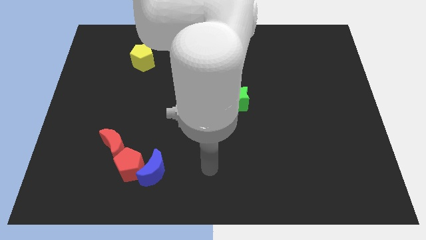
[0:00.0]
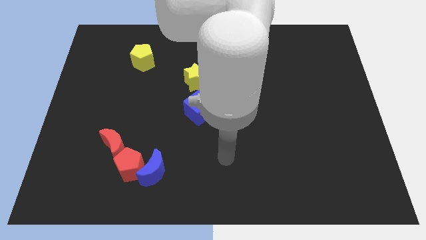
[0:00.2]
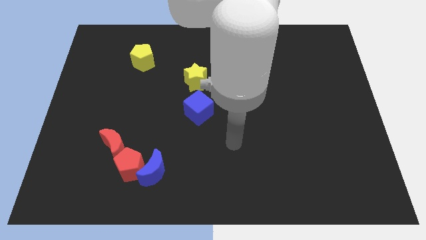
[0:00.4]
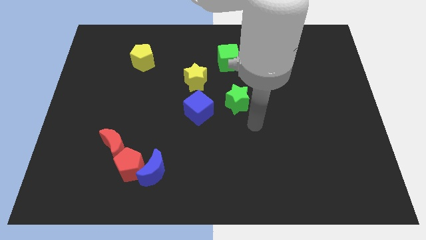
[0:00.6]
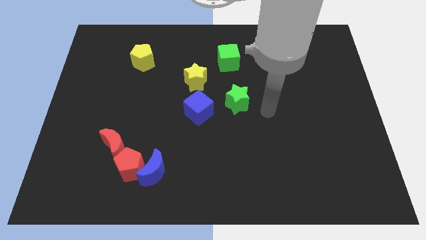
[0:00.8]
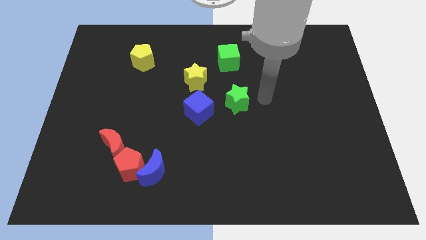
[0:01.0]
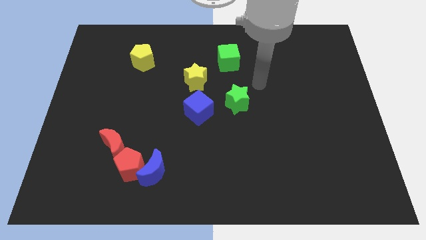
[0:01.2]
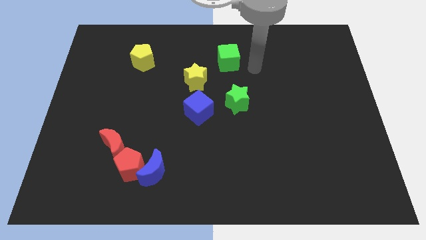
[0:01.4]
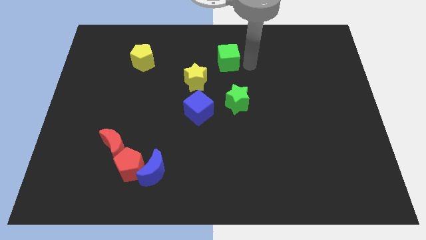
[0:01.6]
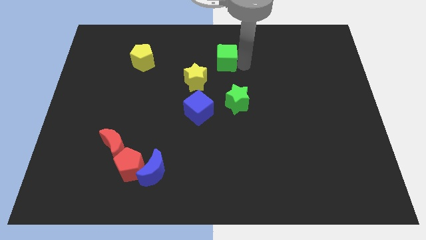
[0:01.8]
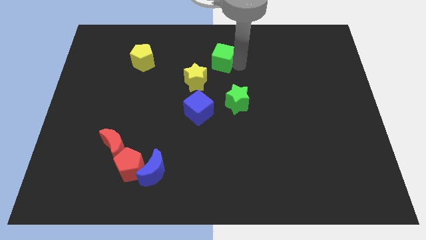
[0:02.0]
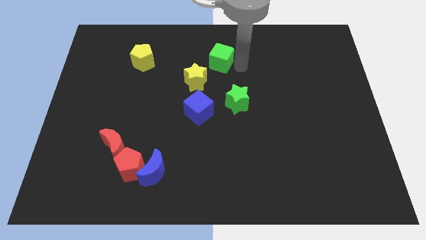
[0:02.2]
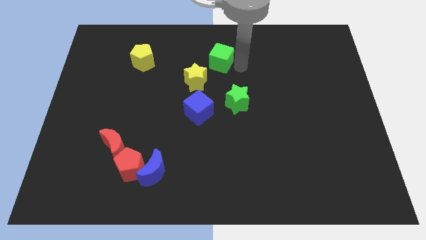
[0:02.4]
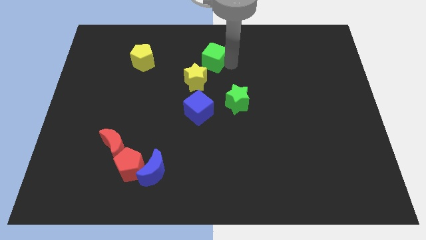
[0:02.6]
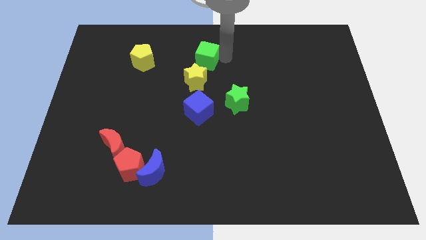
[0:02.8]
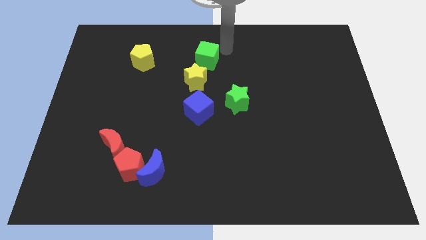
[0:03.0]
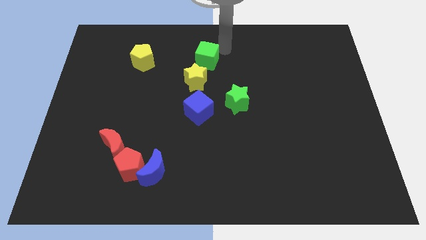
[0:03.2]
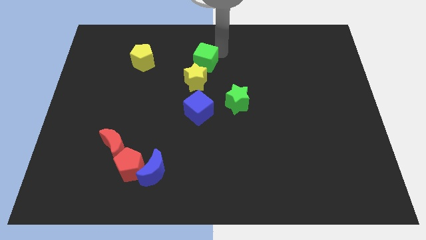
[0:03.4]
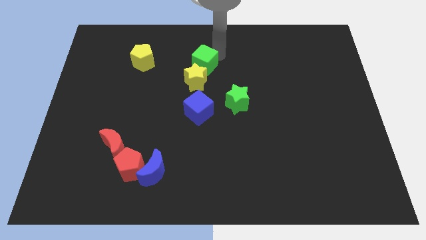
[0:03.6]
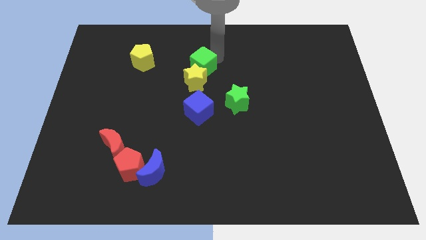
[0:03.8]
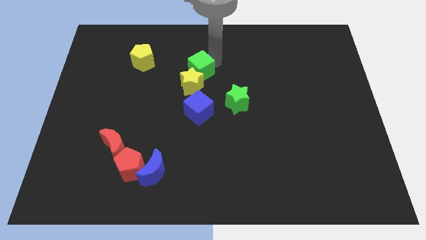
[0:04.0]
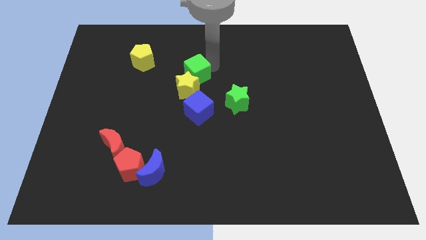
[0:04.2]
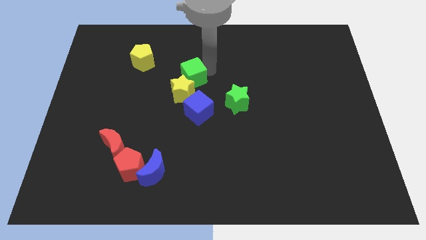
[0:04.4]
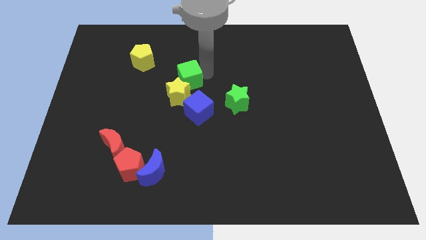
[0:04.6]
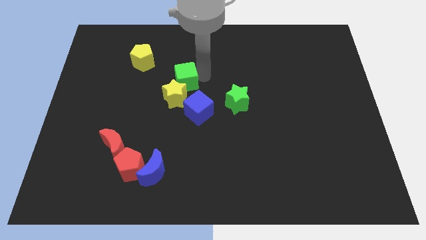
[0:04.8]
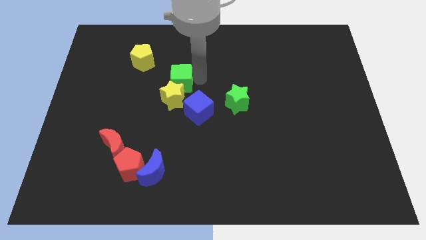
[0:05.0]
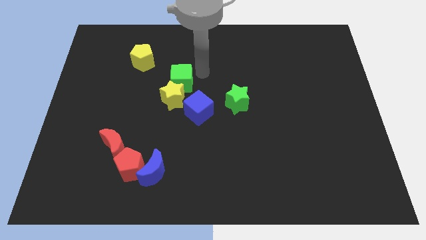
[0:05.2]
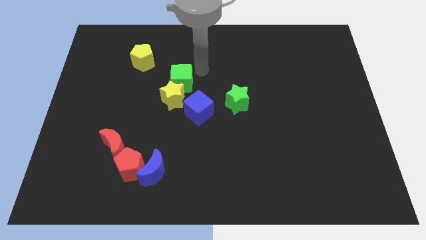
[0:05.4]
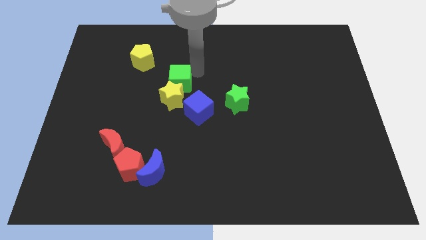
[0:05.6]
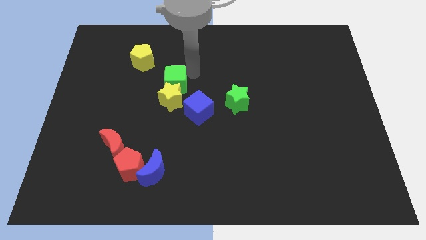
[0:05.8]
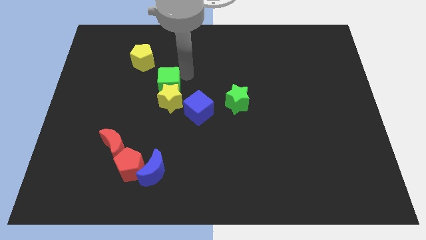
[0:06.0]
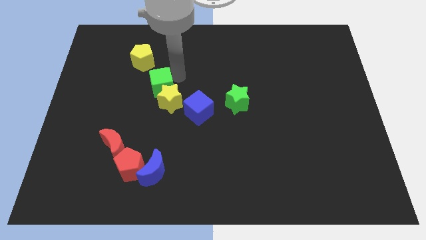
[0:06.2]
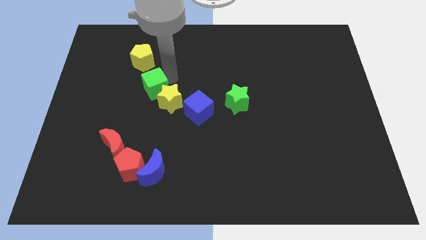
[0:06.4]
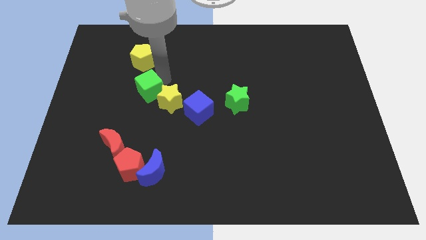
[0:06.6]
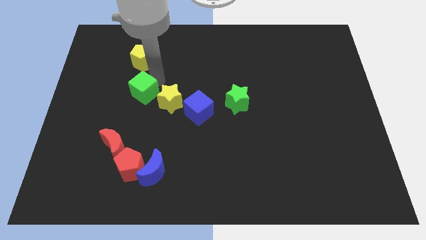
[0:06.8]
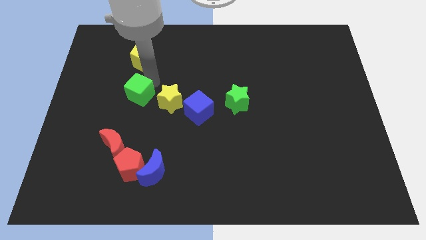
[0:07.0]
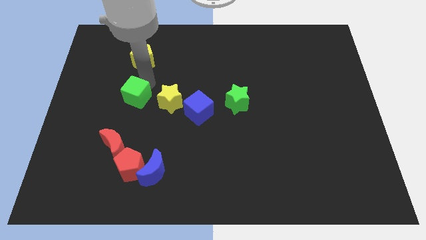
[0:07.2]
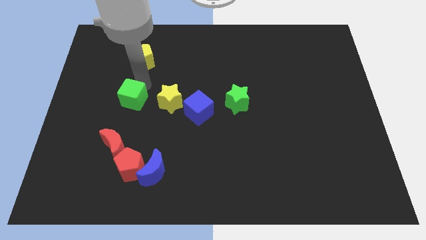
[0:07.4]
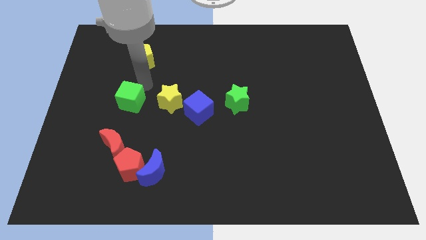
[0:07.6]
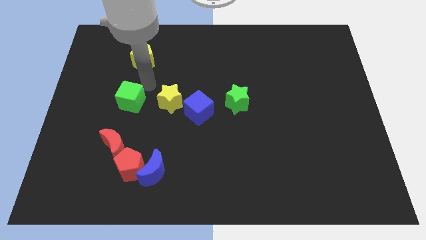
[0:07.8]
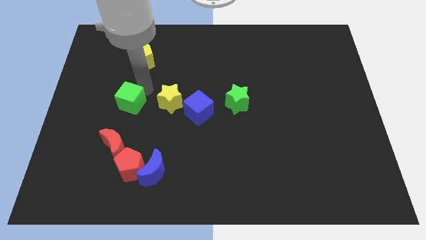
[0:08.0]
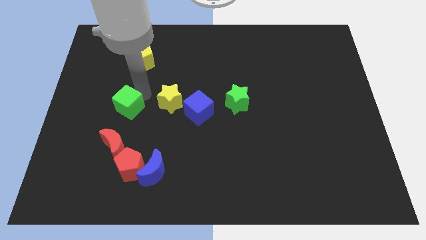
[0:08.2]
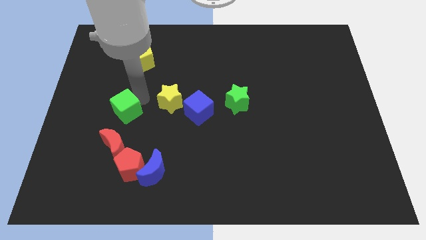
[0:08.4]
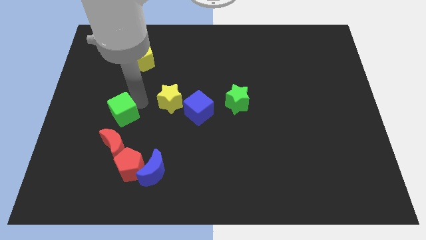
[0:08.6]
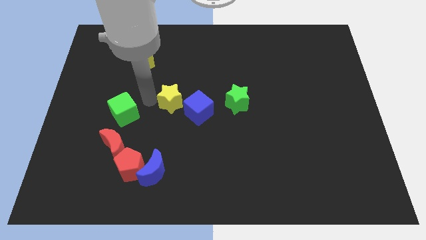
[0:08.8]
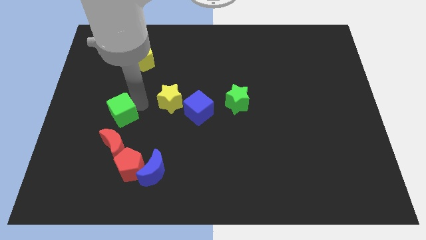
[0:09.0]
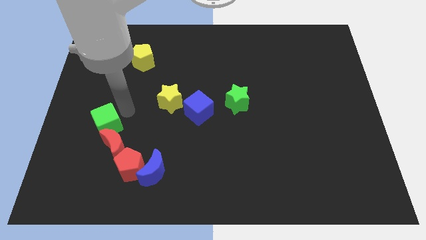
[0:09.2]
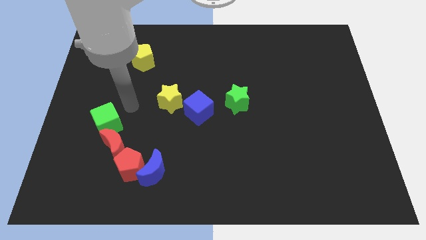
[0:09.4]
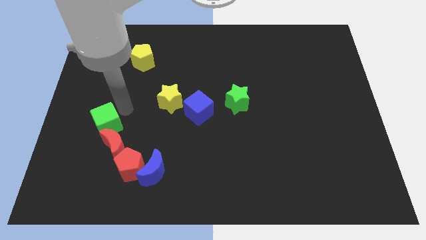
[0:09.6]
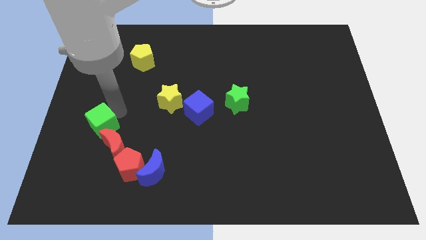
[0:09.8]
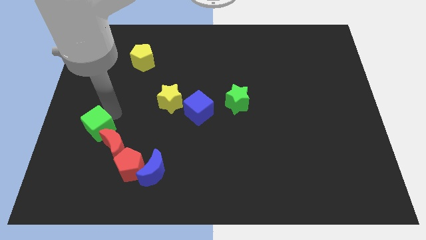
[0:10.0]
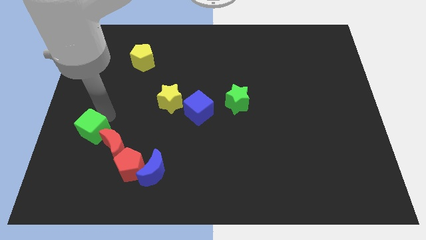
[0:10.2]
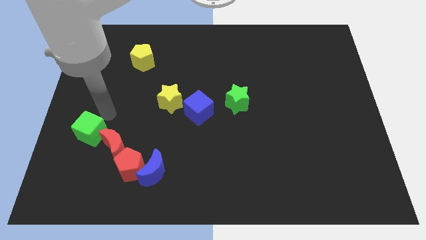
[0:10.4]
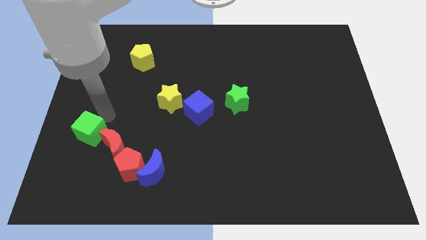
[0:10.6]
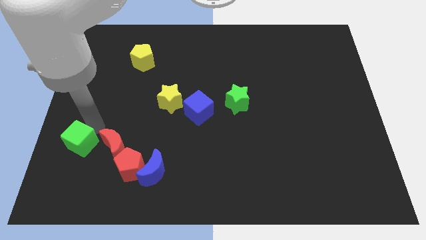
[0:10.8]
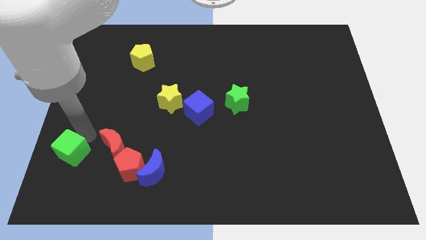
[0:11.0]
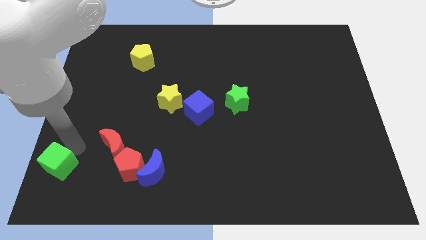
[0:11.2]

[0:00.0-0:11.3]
slide the green cube to the lower left corner

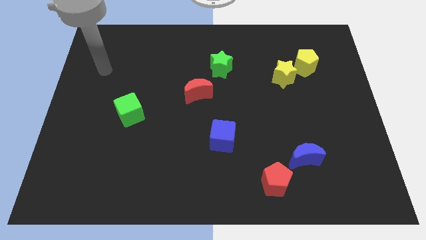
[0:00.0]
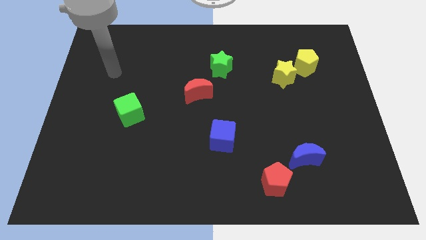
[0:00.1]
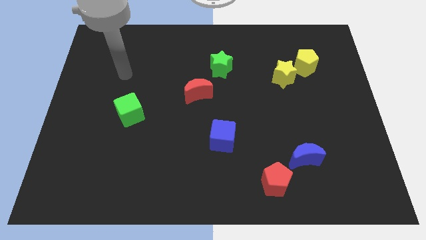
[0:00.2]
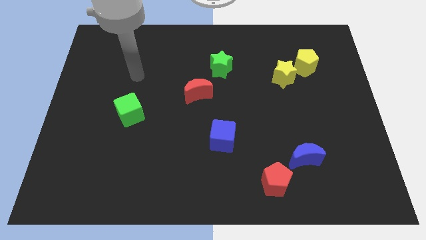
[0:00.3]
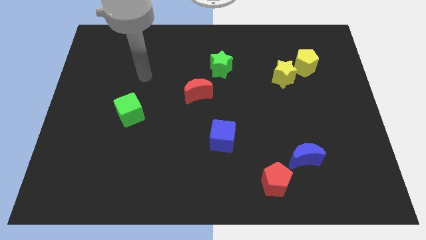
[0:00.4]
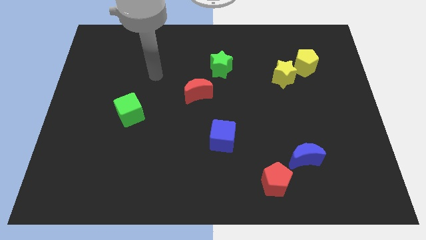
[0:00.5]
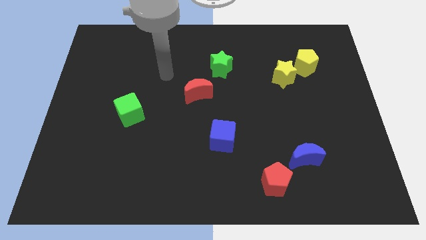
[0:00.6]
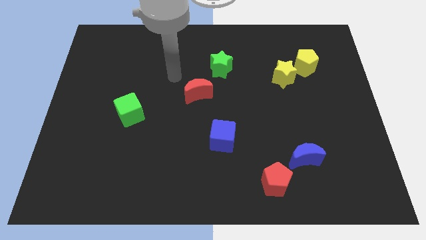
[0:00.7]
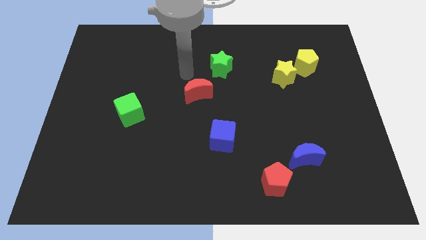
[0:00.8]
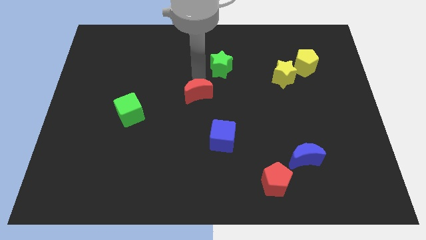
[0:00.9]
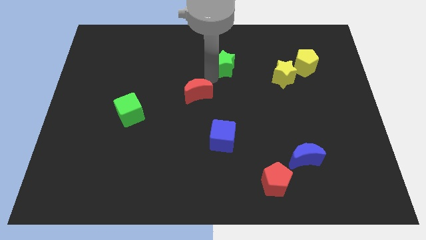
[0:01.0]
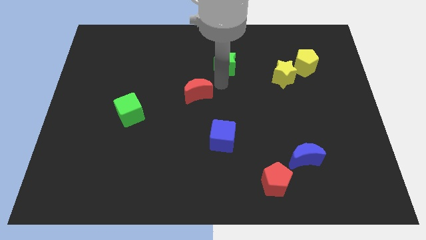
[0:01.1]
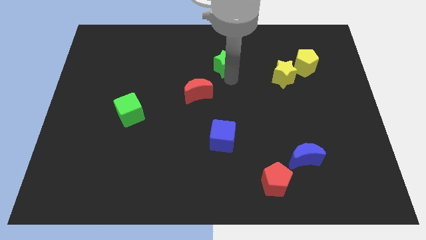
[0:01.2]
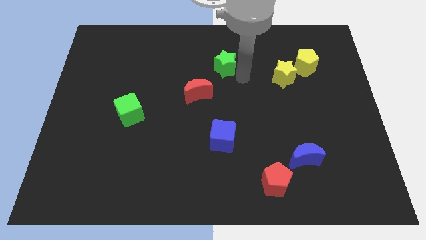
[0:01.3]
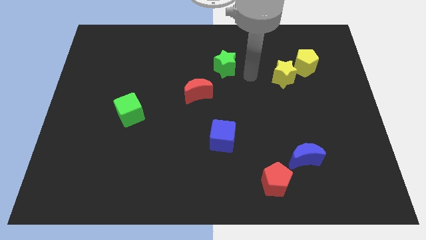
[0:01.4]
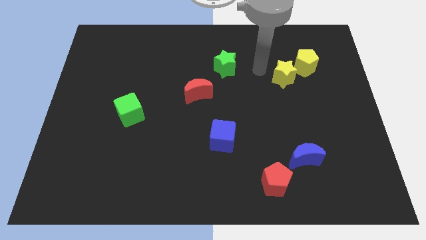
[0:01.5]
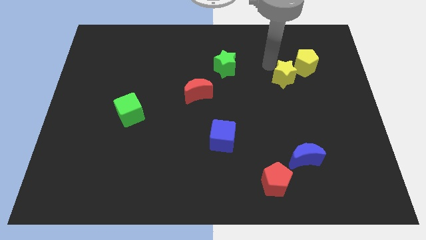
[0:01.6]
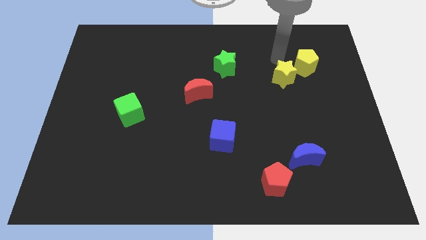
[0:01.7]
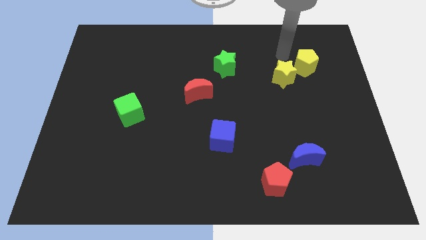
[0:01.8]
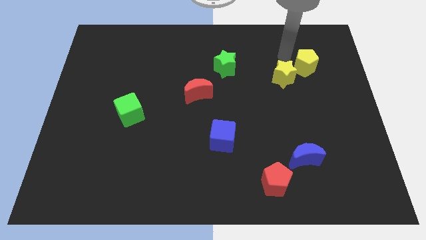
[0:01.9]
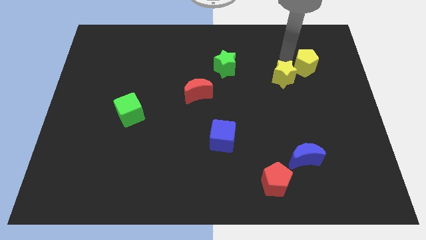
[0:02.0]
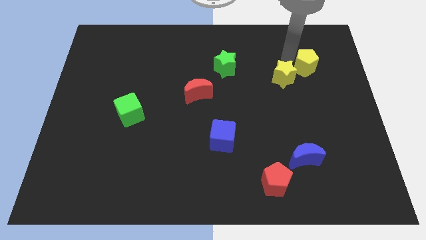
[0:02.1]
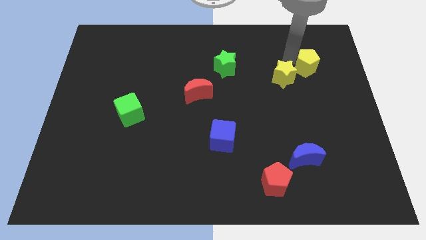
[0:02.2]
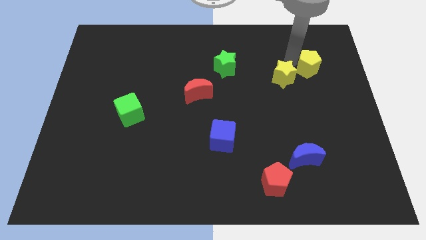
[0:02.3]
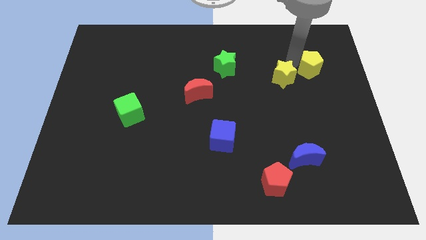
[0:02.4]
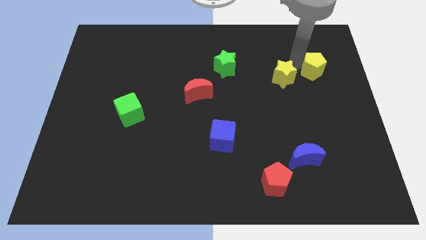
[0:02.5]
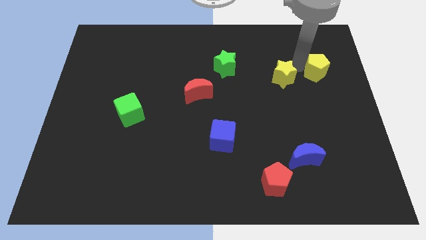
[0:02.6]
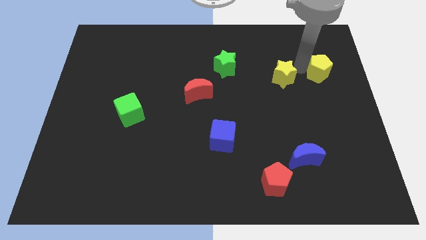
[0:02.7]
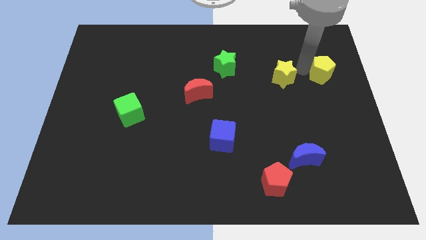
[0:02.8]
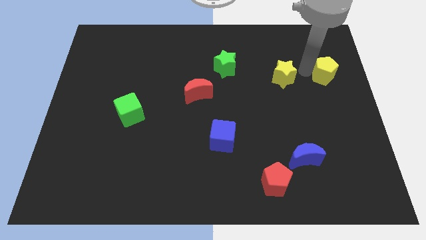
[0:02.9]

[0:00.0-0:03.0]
slide the yellow pentagon to the right side of the board
